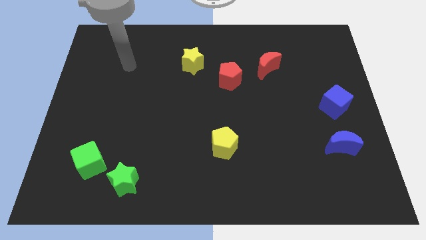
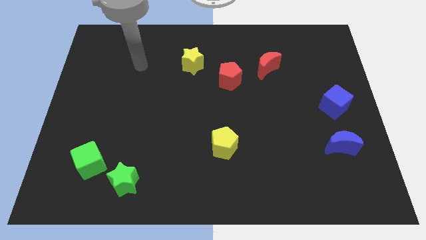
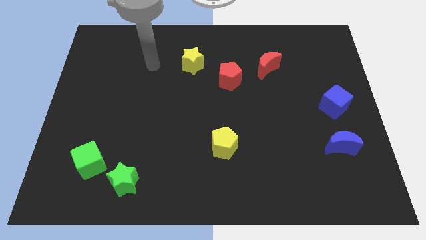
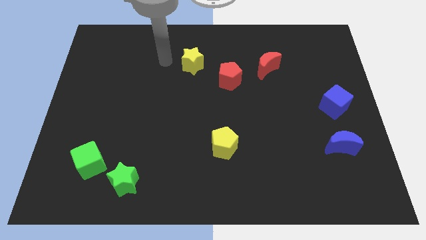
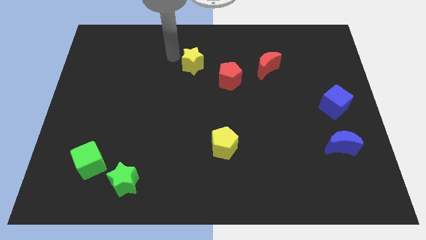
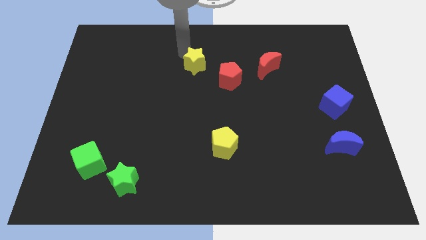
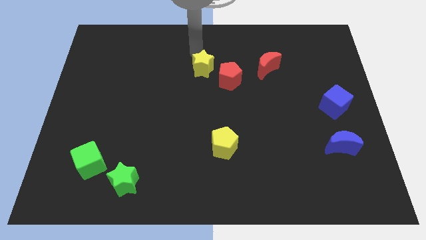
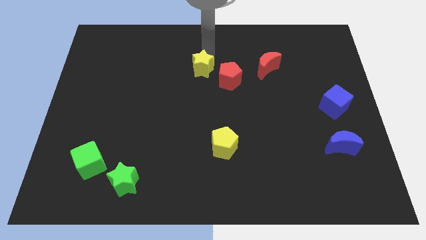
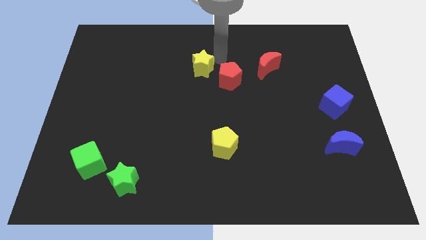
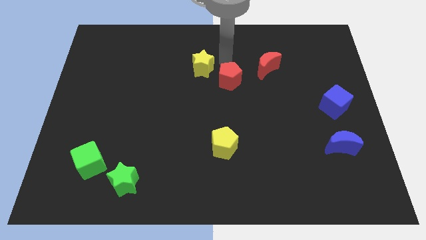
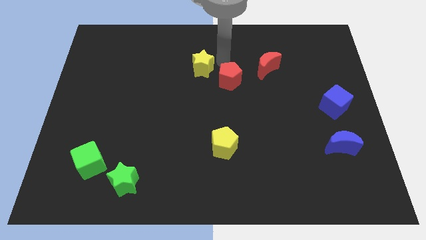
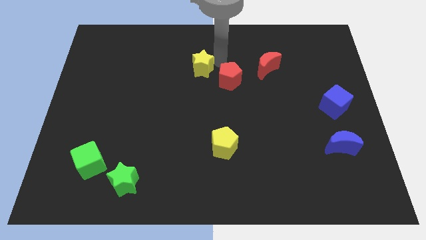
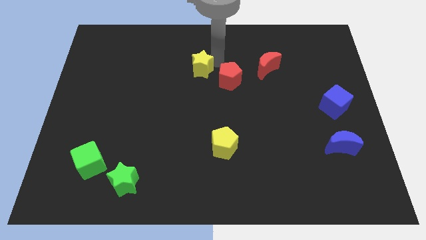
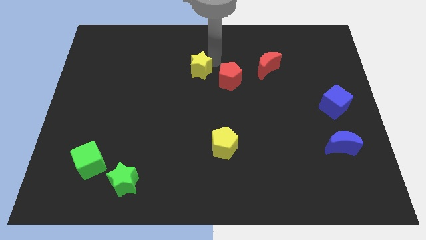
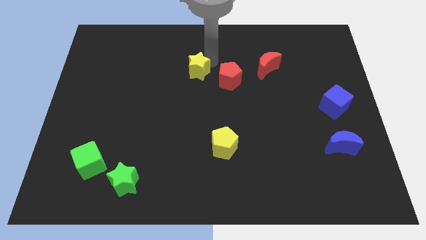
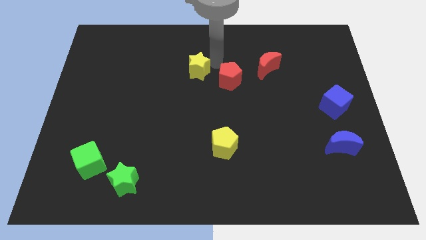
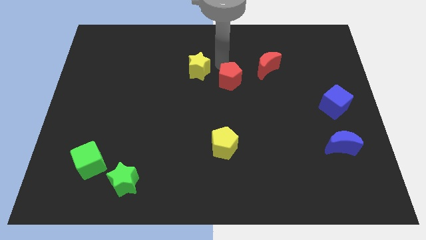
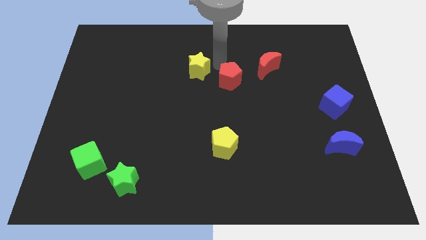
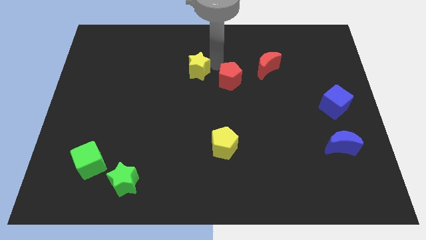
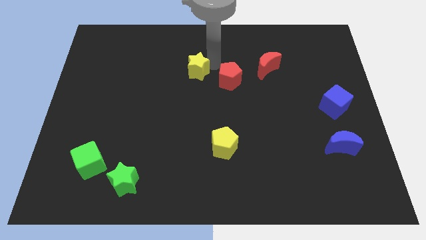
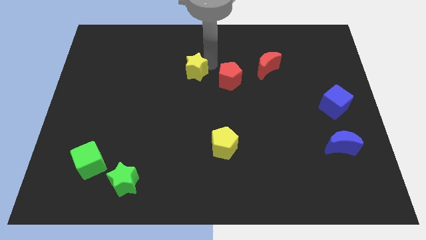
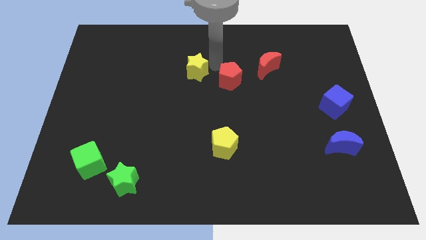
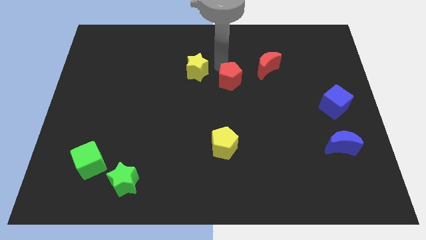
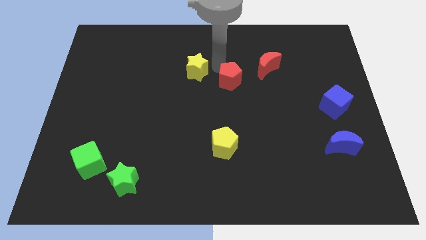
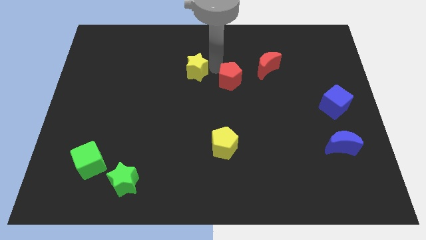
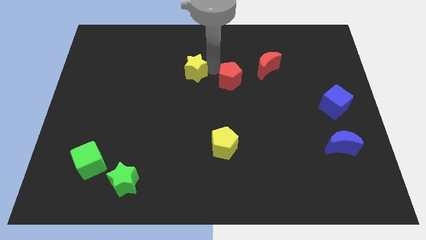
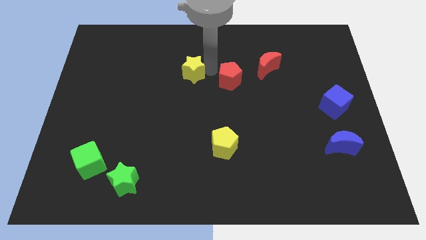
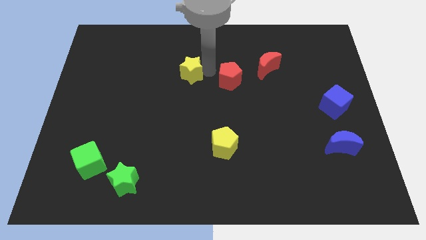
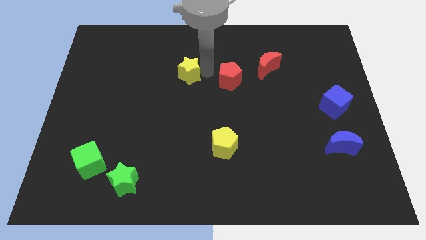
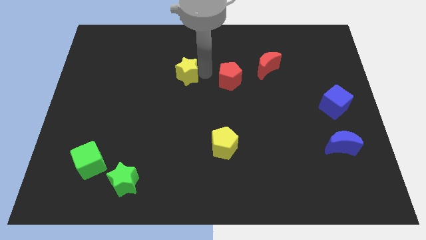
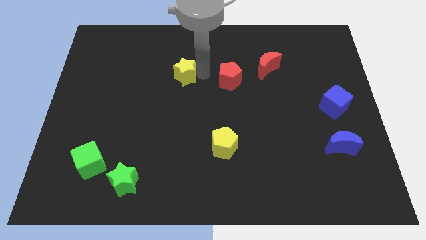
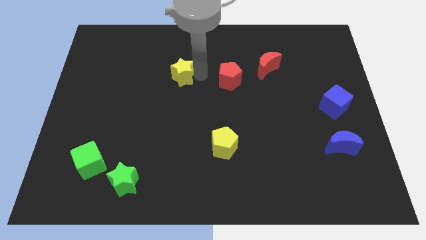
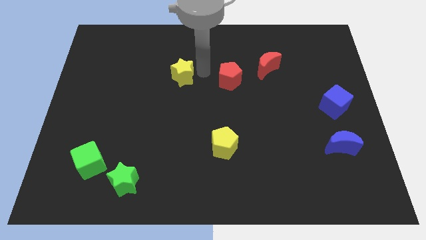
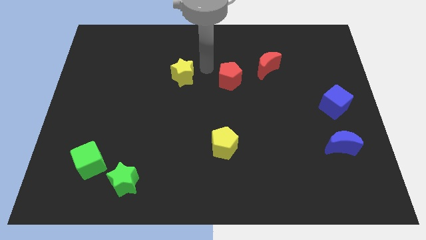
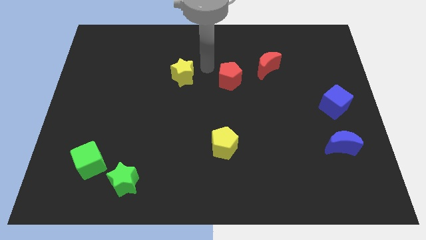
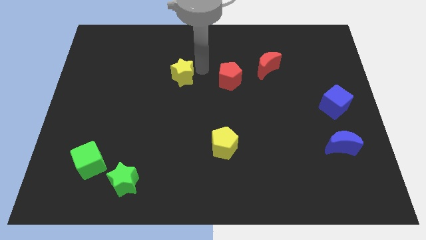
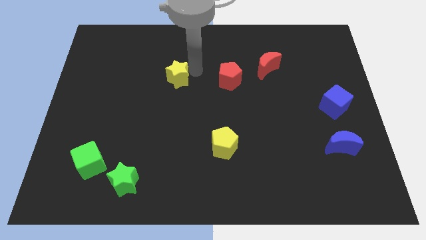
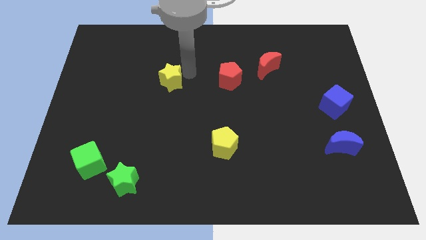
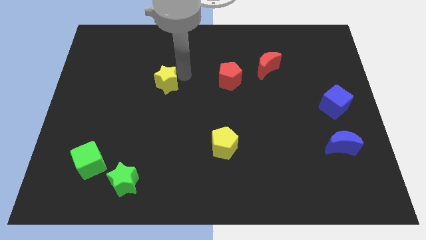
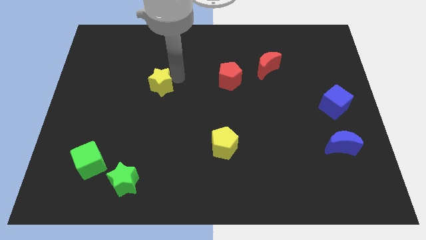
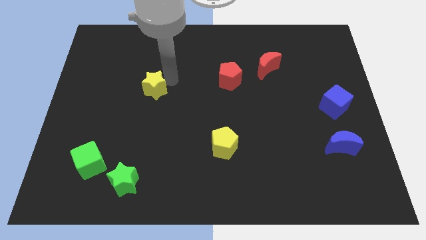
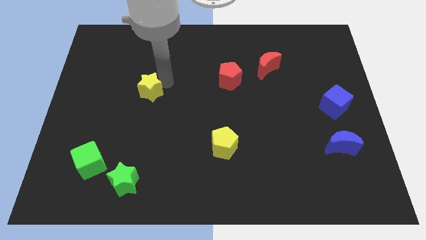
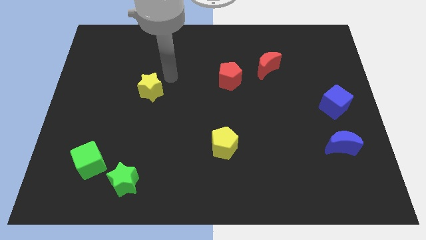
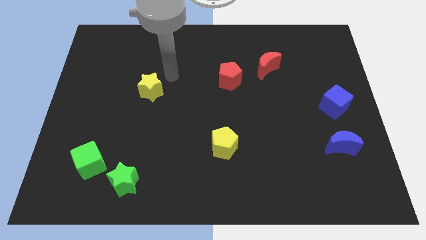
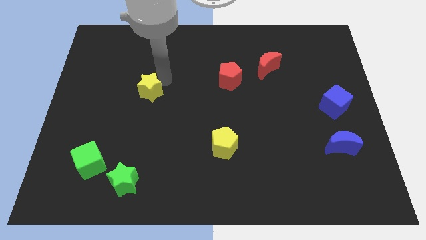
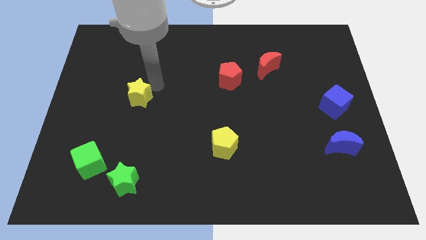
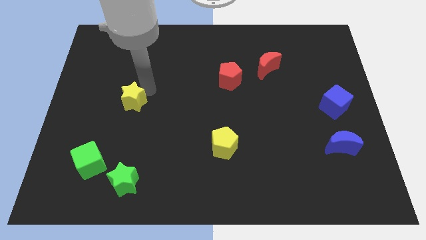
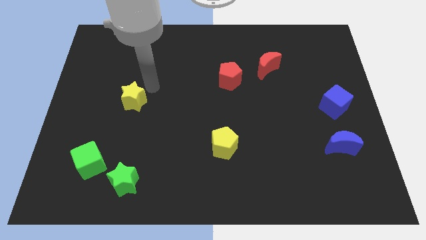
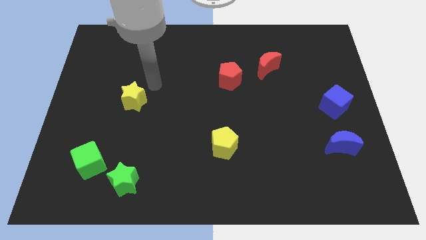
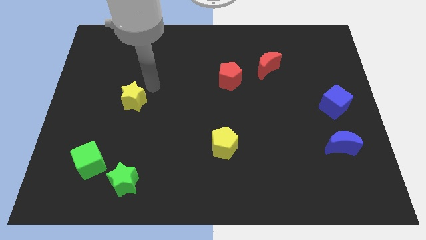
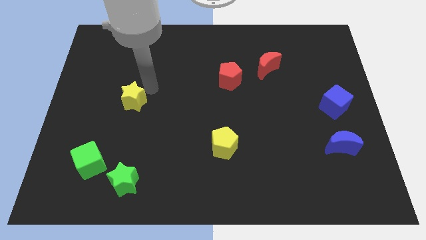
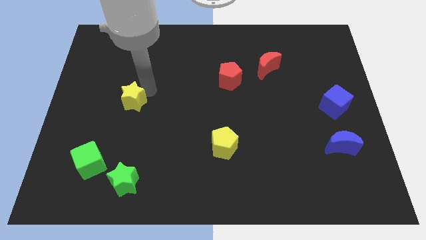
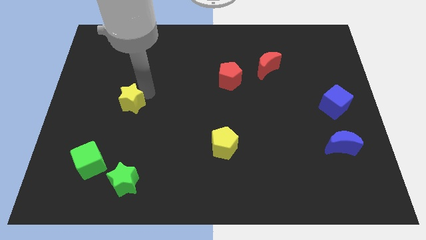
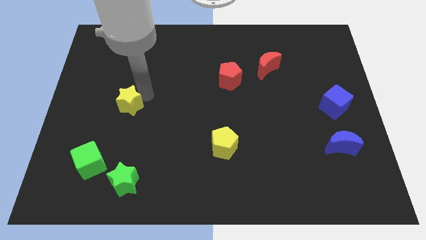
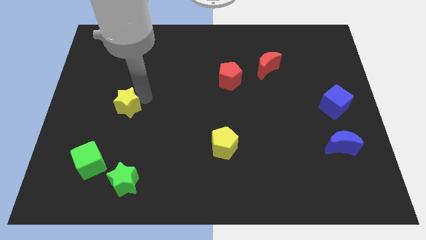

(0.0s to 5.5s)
move the yellow star diagonally down and to the left

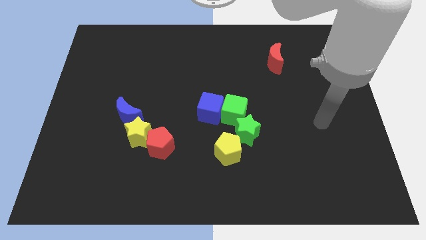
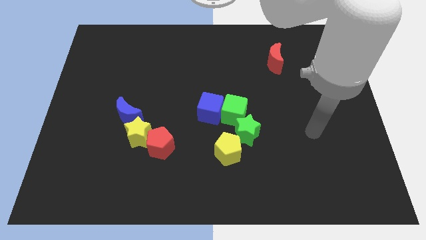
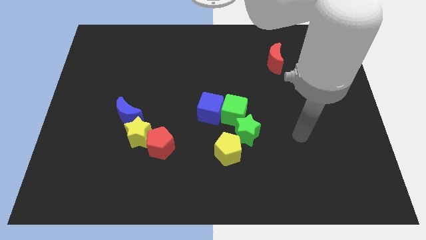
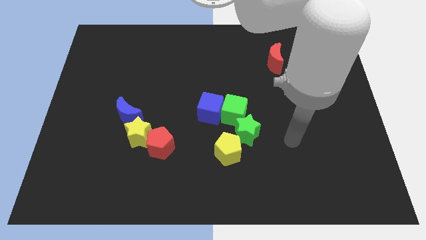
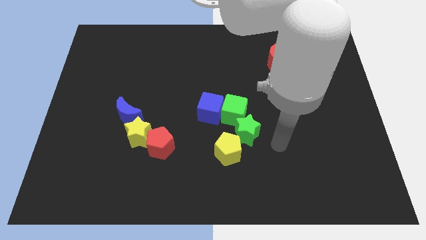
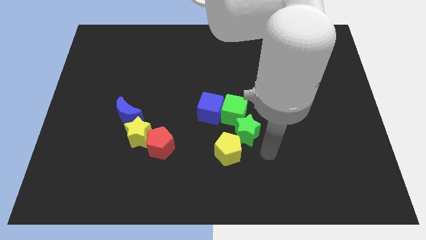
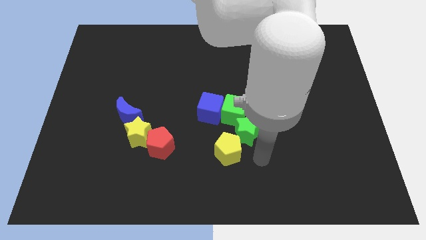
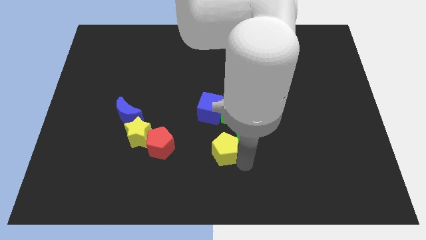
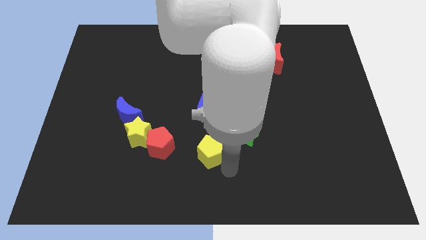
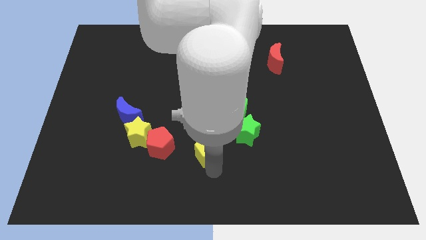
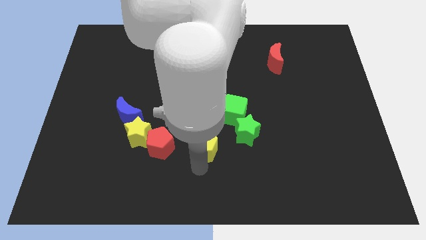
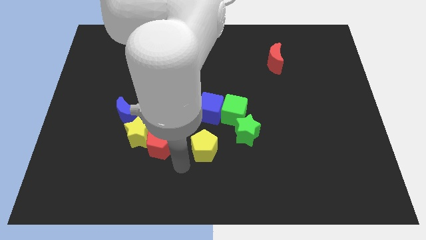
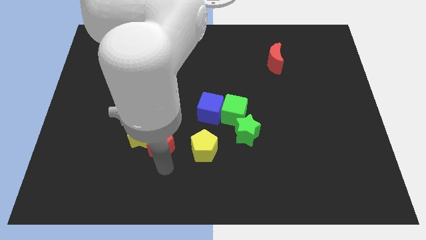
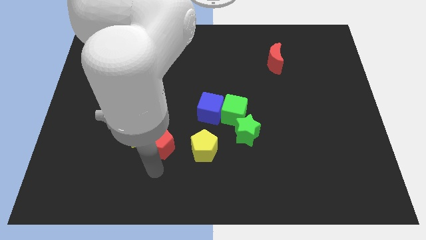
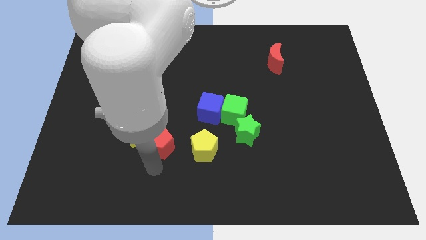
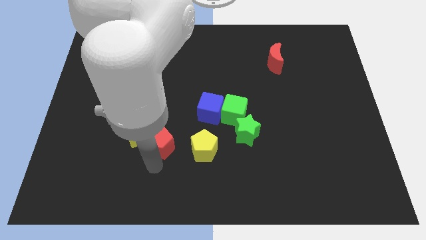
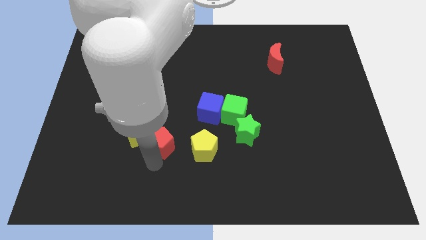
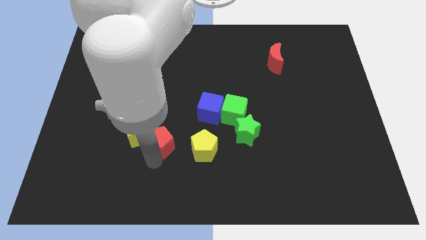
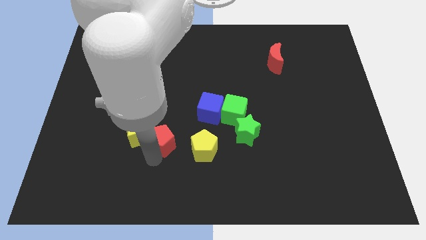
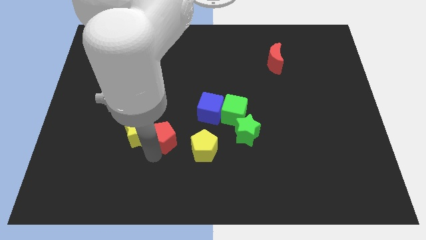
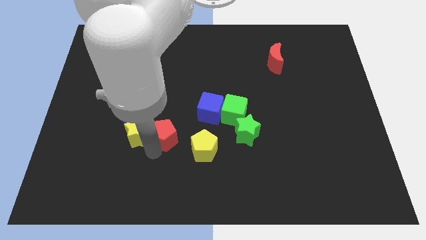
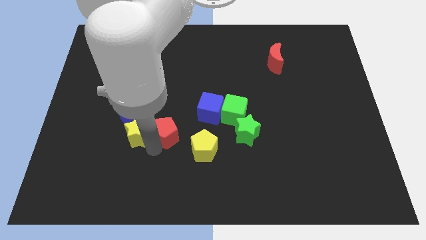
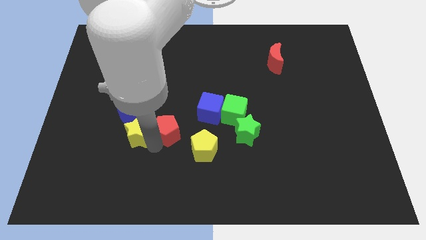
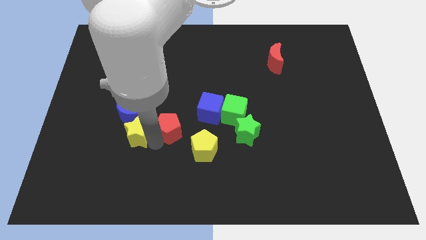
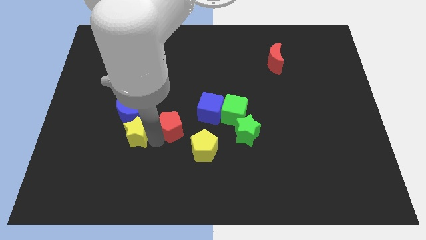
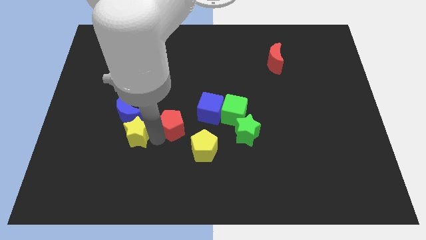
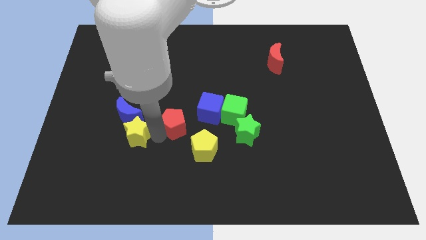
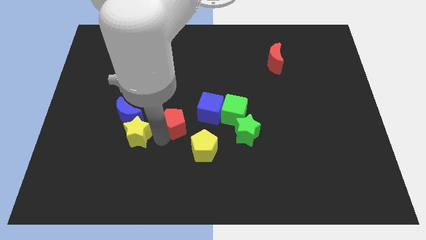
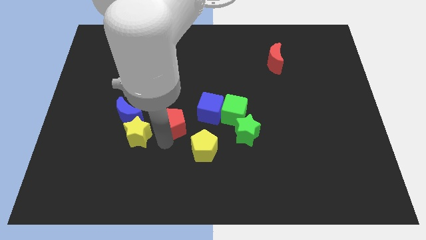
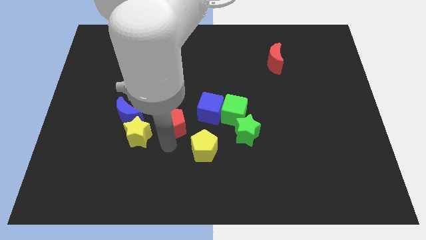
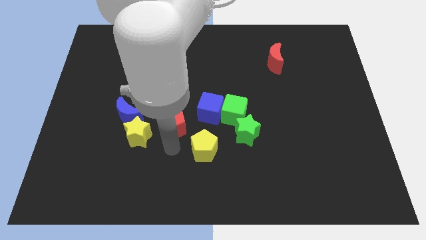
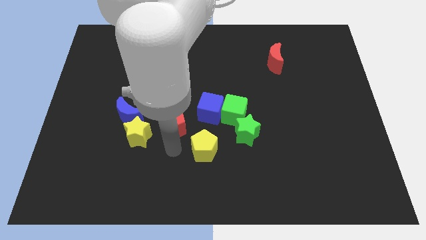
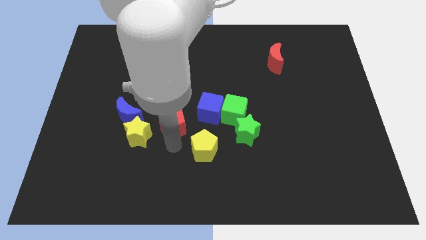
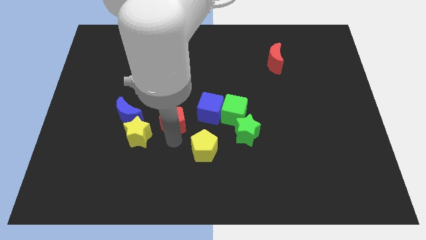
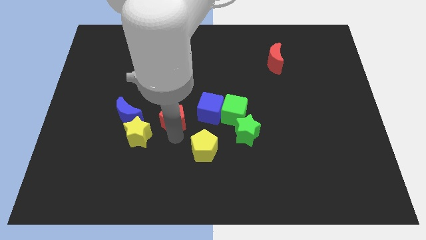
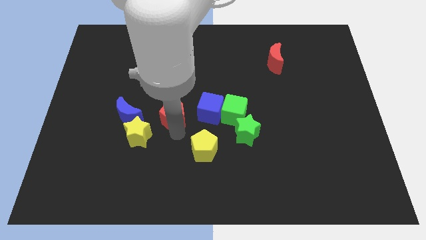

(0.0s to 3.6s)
slightly slide the red pentagon up
